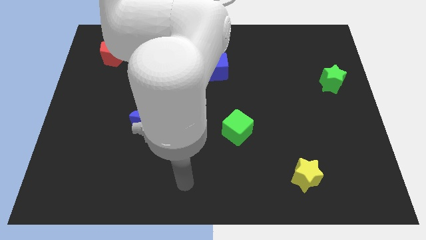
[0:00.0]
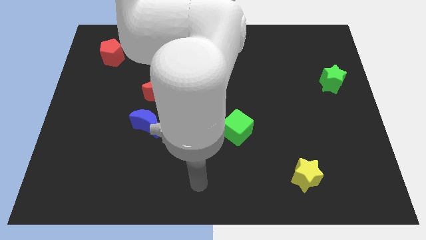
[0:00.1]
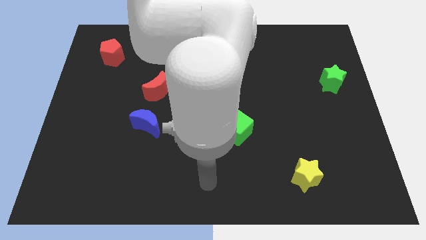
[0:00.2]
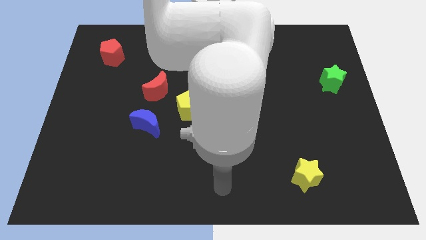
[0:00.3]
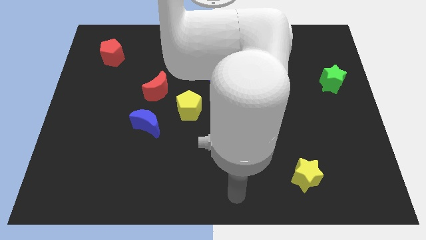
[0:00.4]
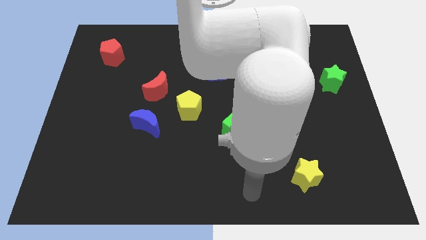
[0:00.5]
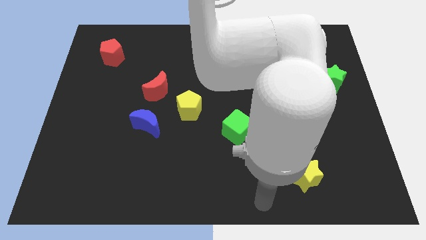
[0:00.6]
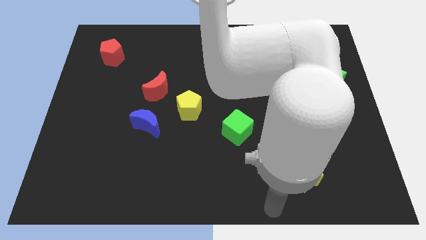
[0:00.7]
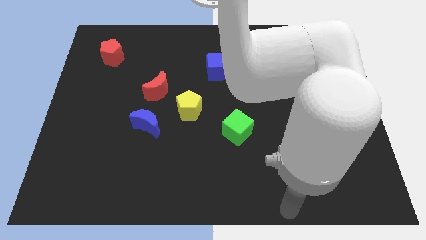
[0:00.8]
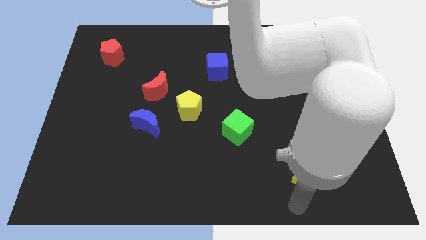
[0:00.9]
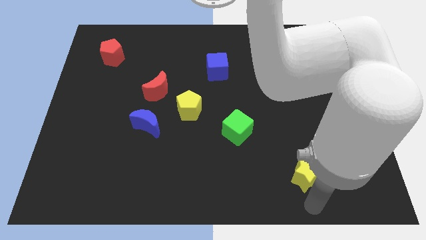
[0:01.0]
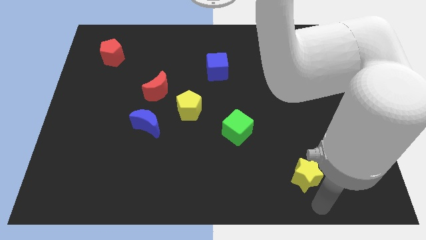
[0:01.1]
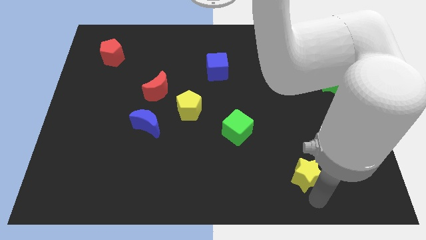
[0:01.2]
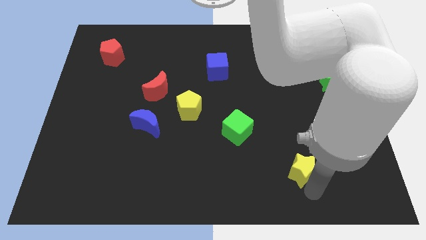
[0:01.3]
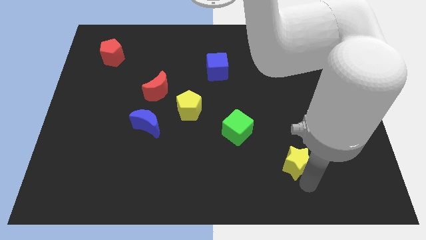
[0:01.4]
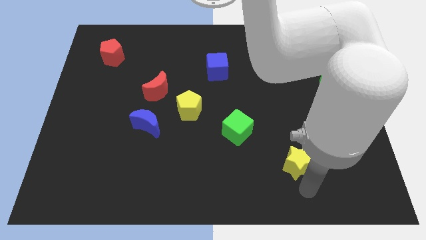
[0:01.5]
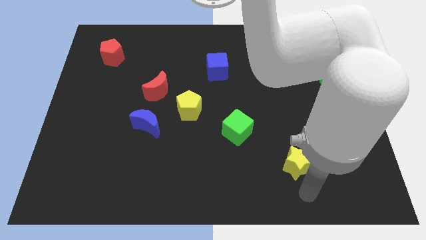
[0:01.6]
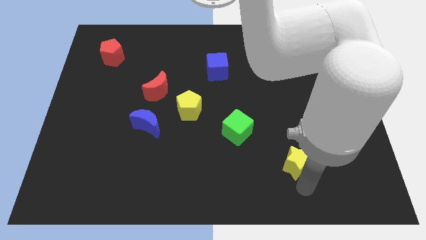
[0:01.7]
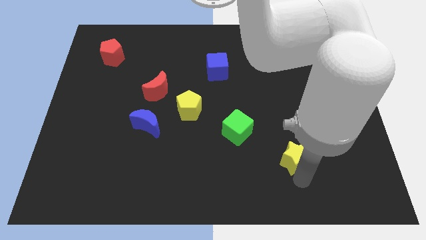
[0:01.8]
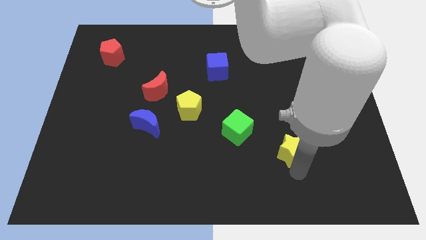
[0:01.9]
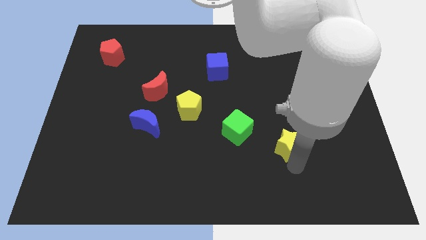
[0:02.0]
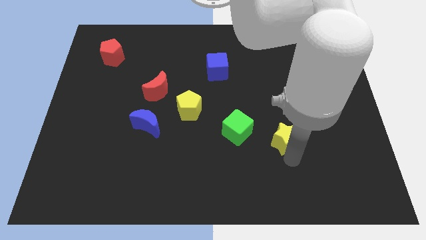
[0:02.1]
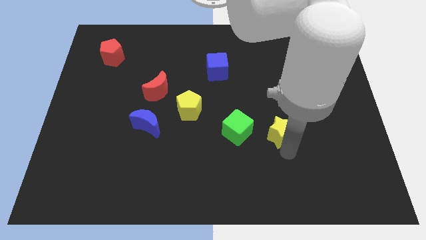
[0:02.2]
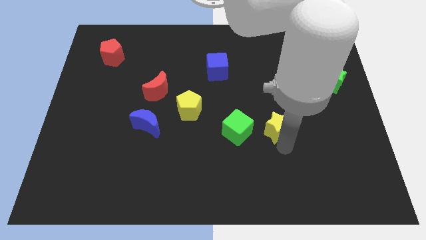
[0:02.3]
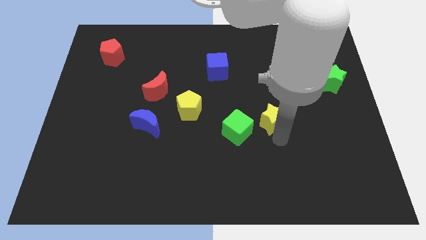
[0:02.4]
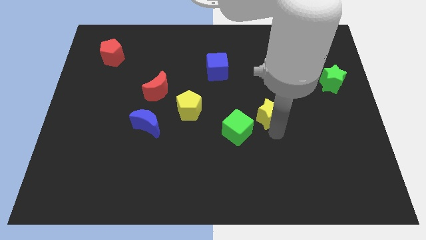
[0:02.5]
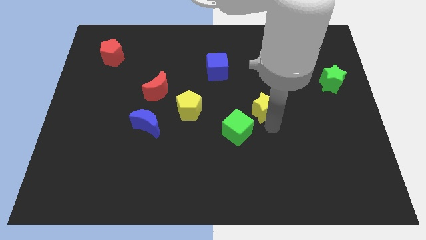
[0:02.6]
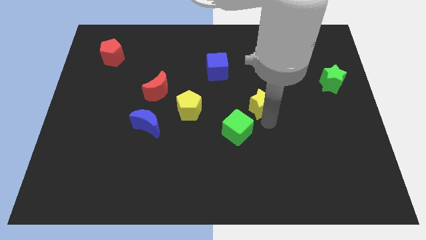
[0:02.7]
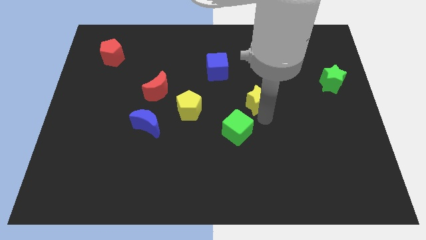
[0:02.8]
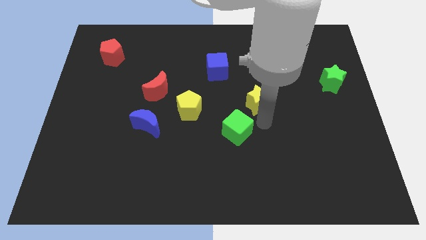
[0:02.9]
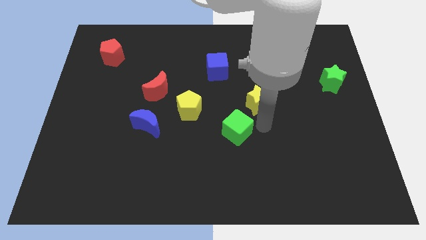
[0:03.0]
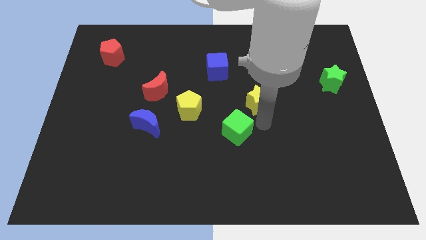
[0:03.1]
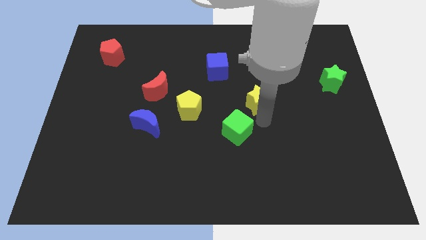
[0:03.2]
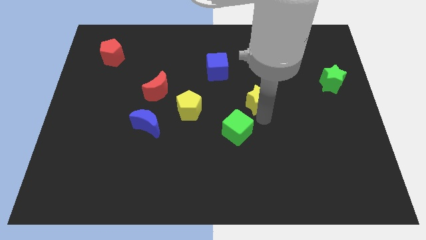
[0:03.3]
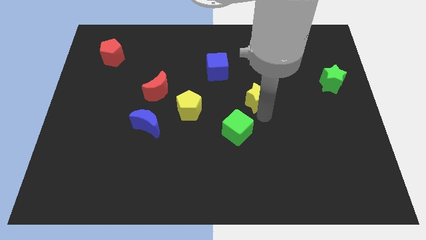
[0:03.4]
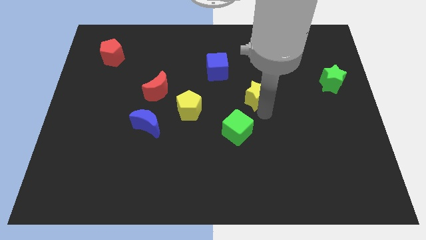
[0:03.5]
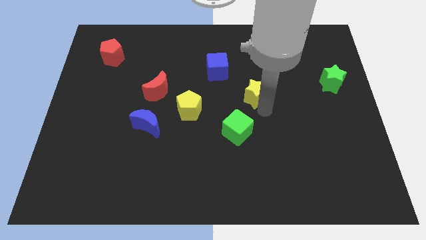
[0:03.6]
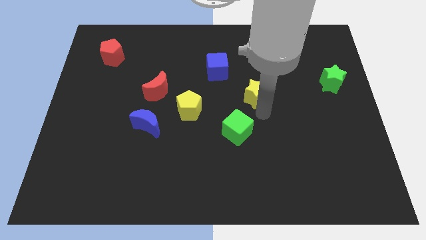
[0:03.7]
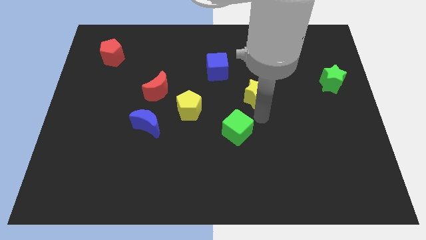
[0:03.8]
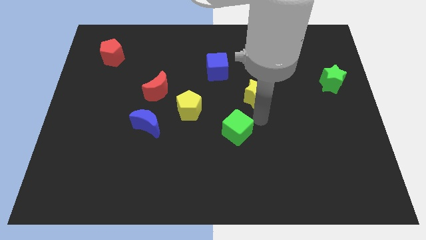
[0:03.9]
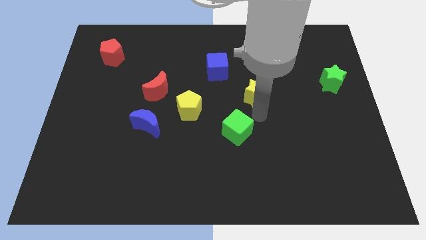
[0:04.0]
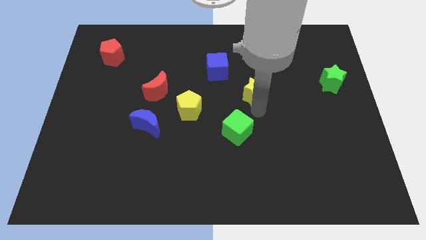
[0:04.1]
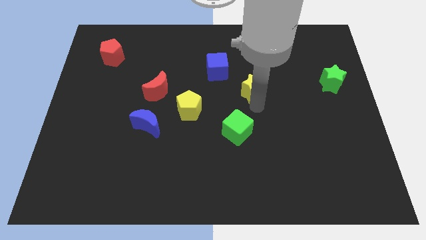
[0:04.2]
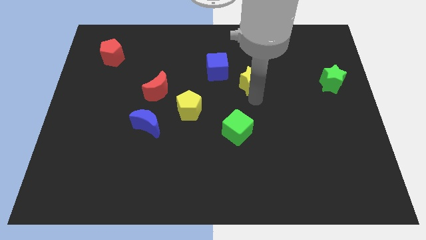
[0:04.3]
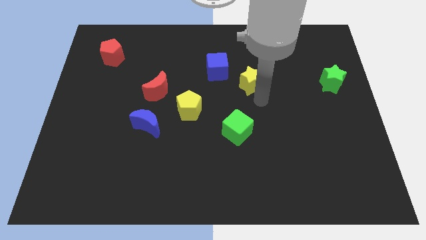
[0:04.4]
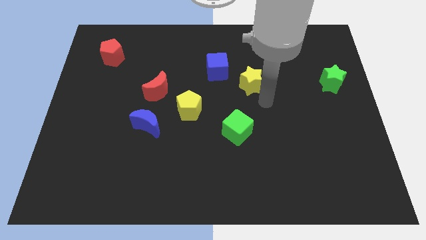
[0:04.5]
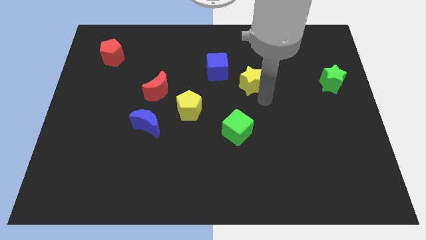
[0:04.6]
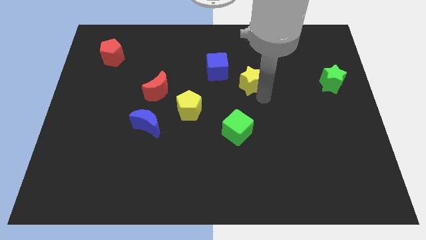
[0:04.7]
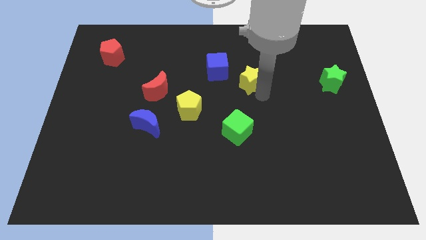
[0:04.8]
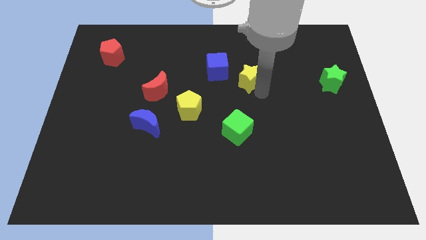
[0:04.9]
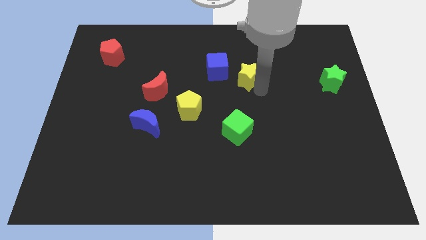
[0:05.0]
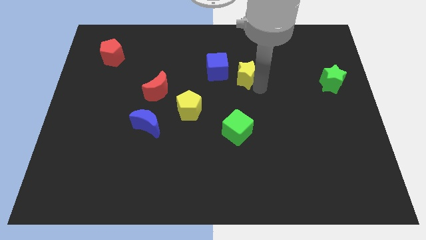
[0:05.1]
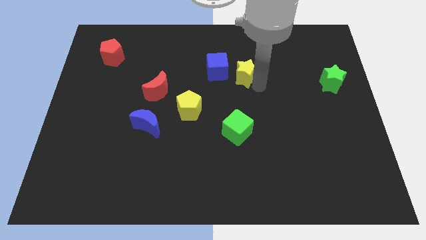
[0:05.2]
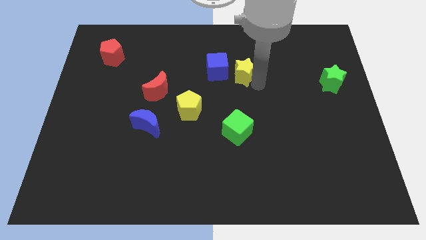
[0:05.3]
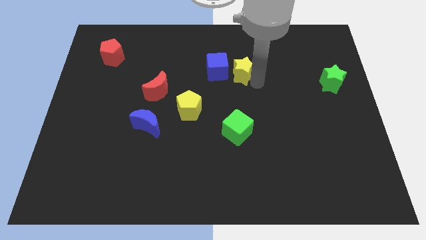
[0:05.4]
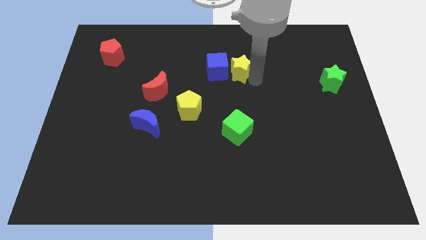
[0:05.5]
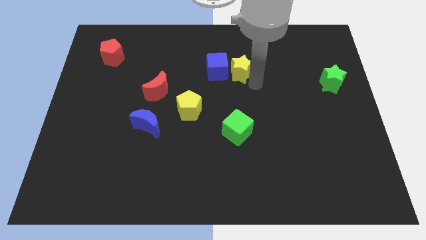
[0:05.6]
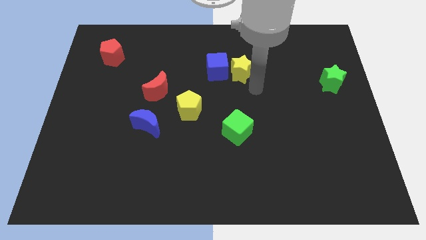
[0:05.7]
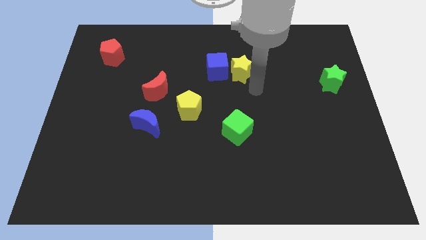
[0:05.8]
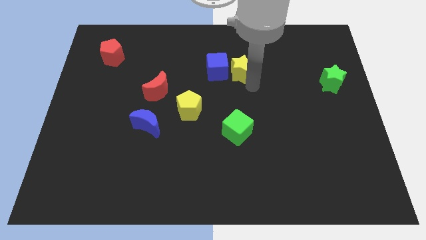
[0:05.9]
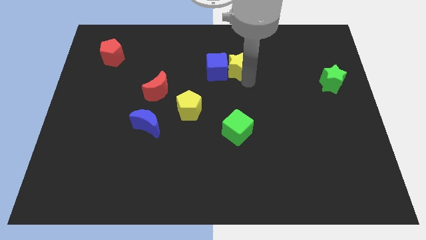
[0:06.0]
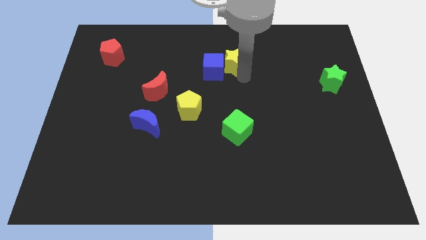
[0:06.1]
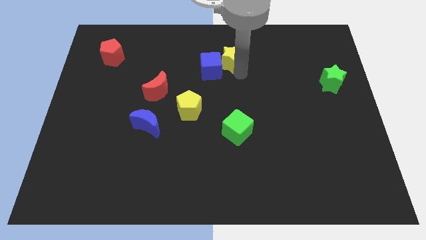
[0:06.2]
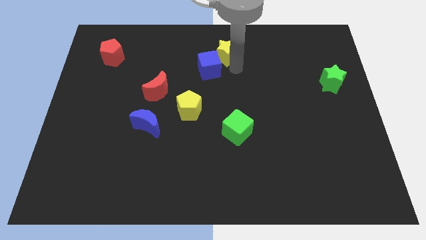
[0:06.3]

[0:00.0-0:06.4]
move the yellow star to the top
